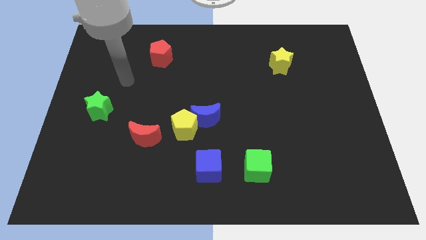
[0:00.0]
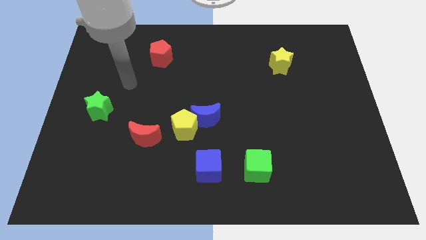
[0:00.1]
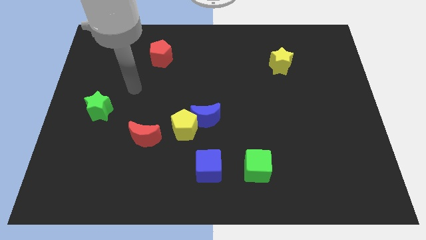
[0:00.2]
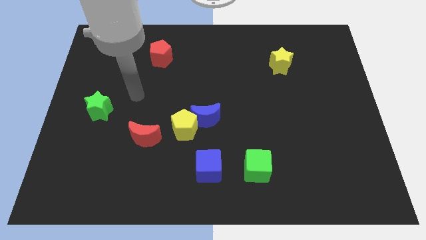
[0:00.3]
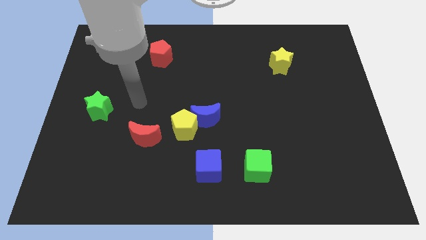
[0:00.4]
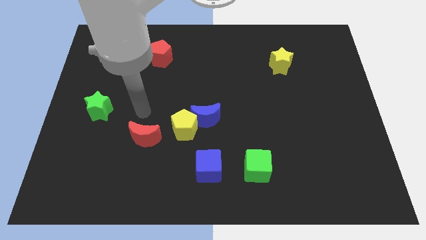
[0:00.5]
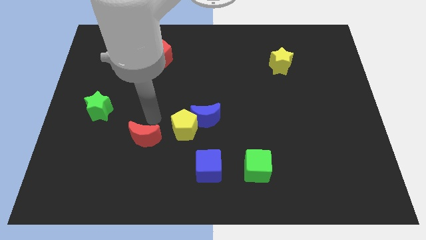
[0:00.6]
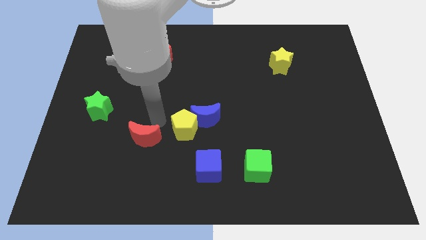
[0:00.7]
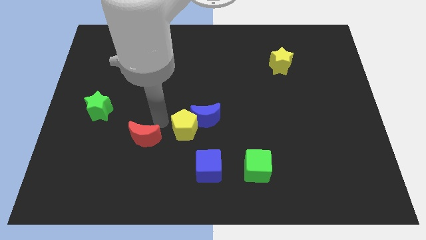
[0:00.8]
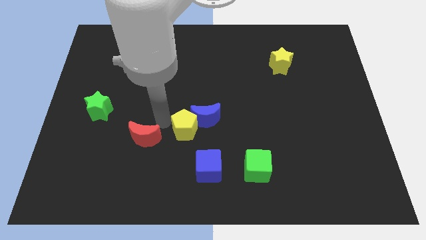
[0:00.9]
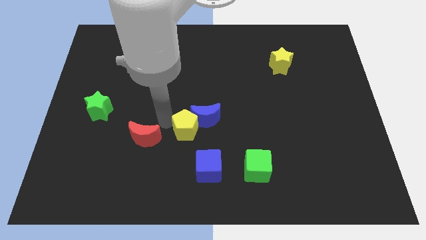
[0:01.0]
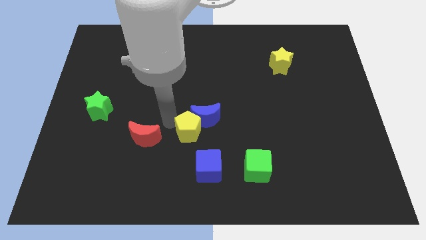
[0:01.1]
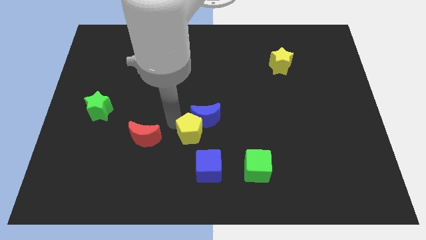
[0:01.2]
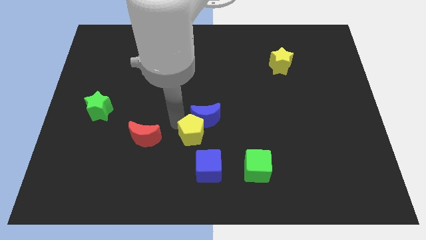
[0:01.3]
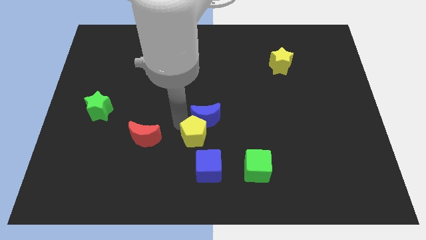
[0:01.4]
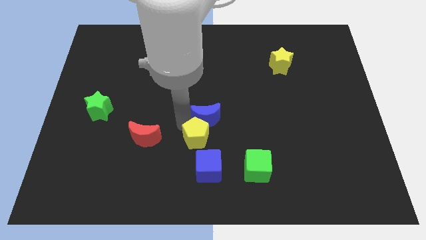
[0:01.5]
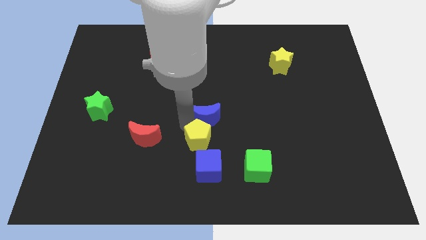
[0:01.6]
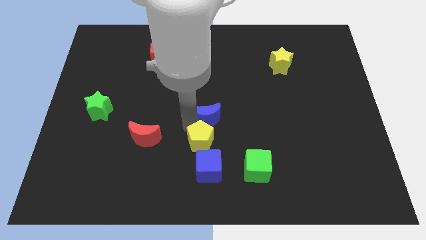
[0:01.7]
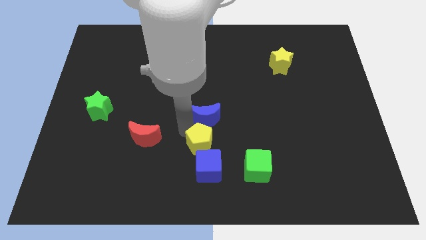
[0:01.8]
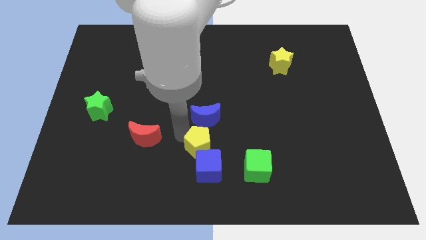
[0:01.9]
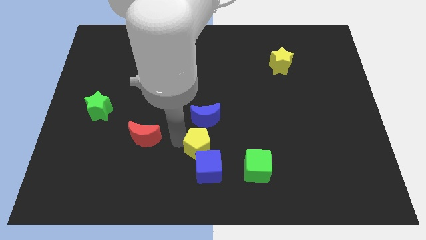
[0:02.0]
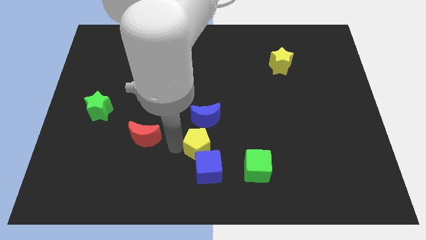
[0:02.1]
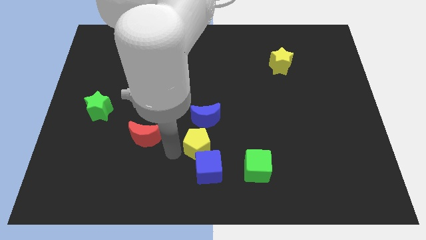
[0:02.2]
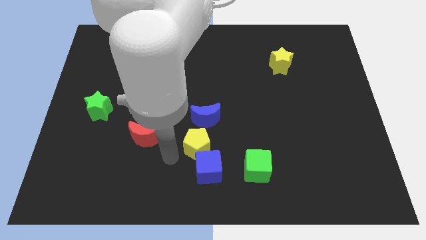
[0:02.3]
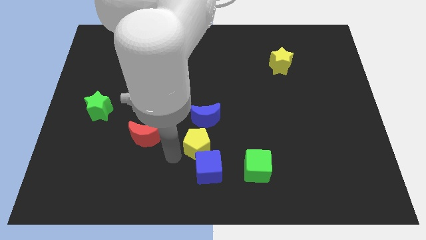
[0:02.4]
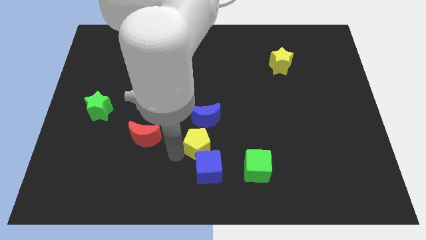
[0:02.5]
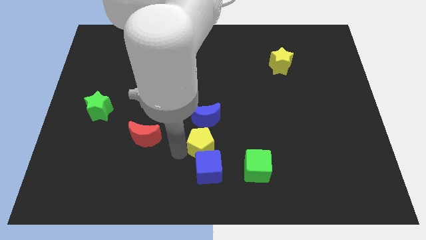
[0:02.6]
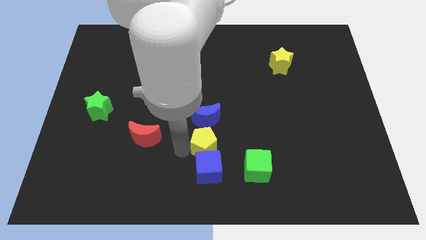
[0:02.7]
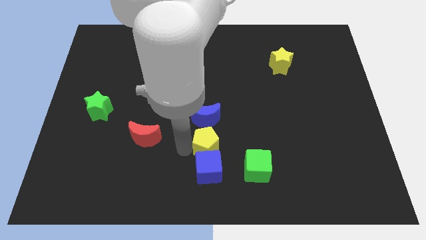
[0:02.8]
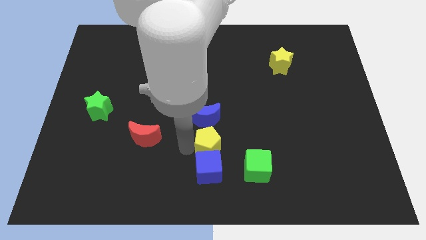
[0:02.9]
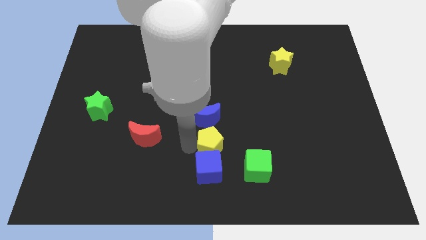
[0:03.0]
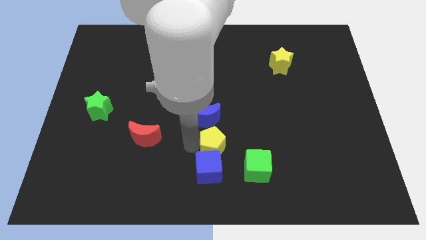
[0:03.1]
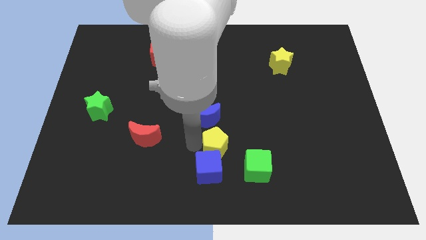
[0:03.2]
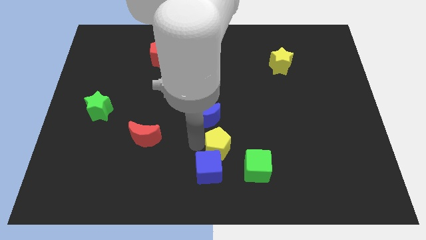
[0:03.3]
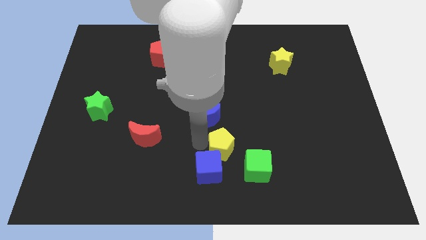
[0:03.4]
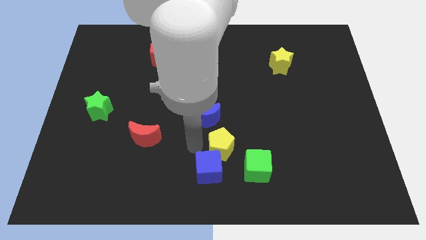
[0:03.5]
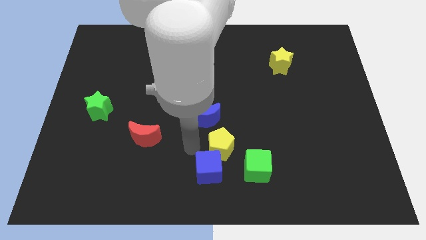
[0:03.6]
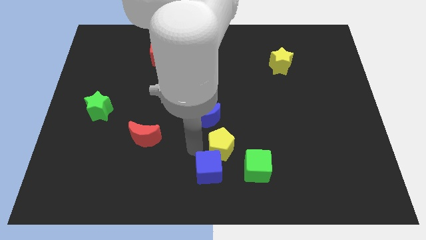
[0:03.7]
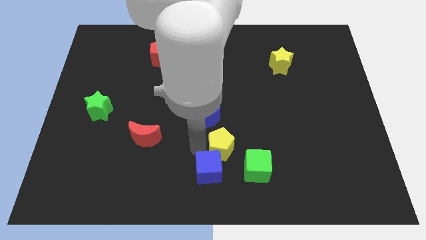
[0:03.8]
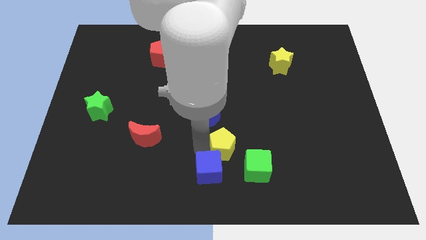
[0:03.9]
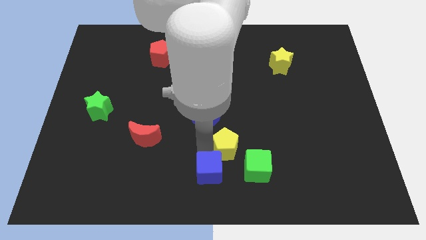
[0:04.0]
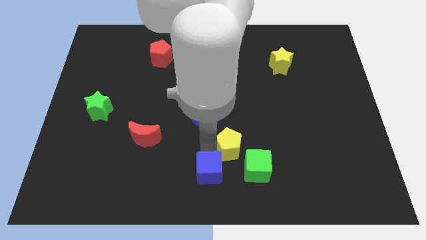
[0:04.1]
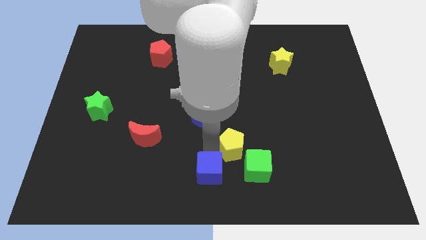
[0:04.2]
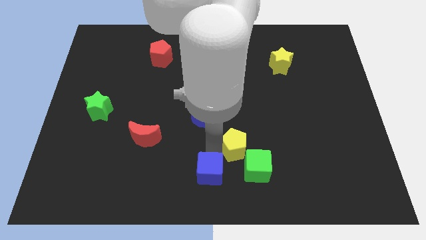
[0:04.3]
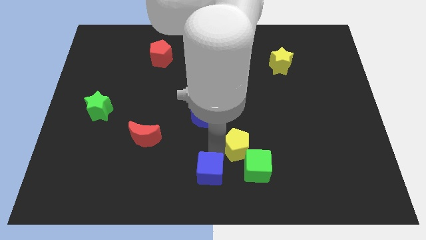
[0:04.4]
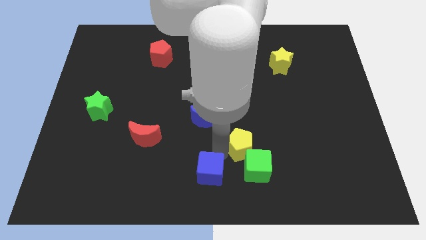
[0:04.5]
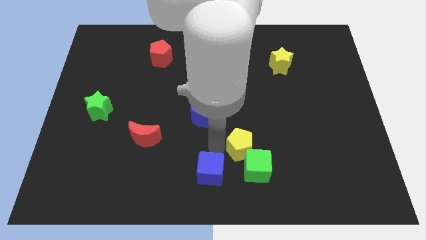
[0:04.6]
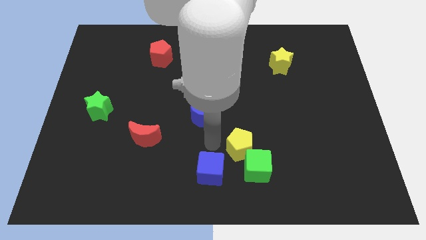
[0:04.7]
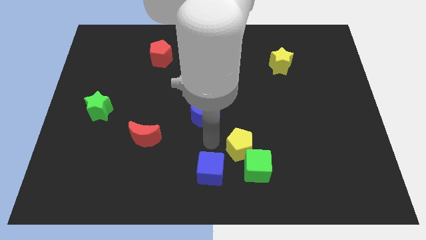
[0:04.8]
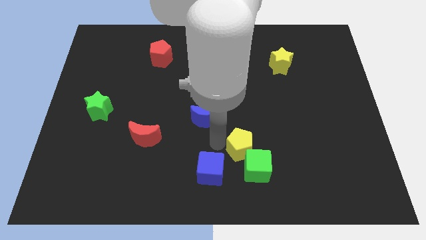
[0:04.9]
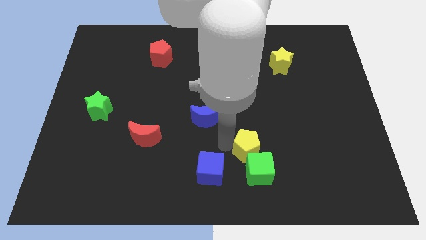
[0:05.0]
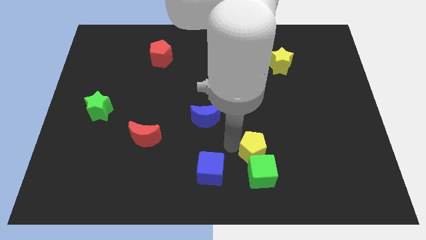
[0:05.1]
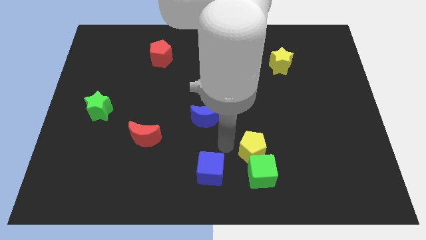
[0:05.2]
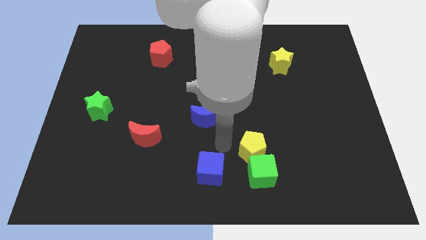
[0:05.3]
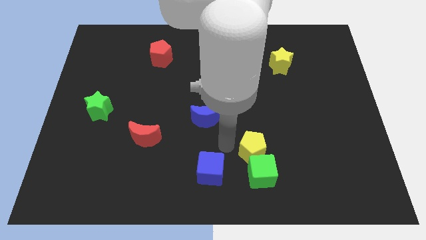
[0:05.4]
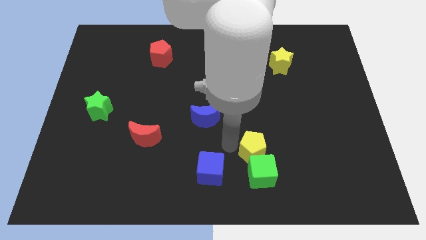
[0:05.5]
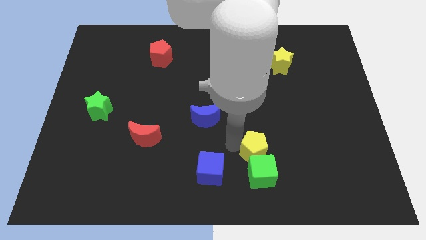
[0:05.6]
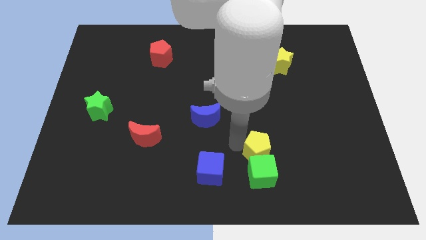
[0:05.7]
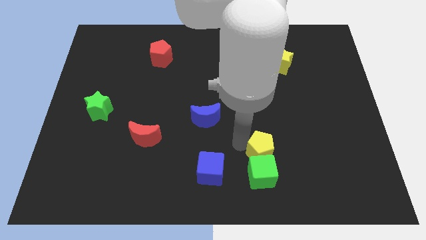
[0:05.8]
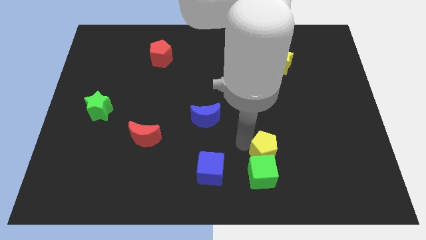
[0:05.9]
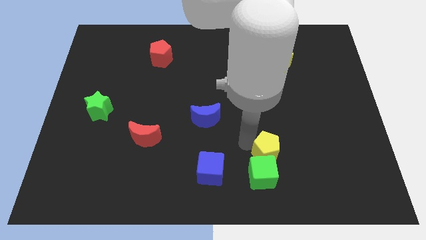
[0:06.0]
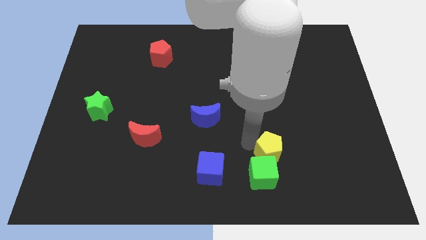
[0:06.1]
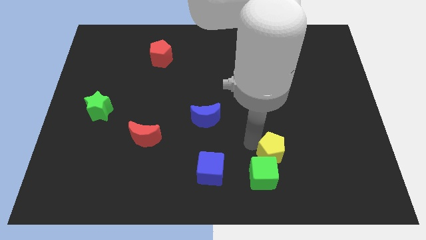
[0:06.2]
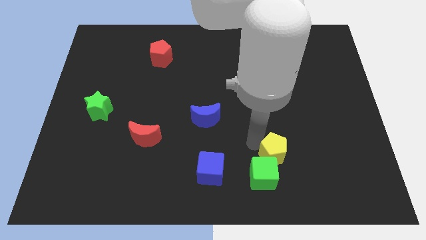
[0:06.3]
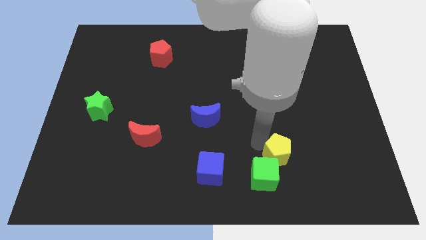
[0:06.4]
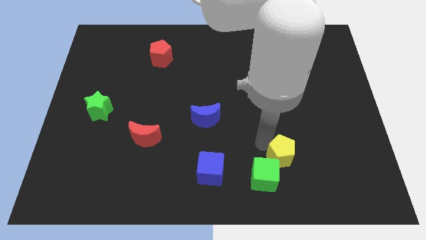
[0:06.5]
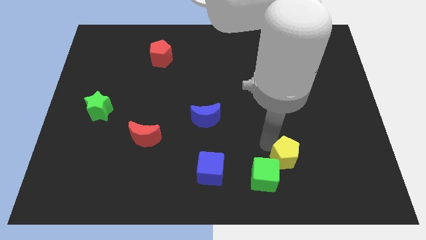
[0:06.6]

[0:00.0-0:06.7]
move the yellow pentagon just right of the green cube
